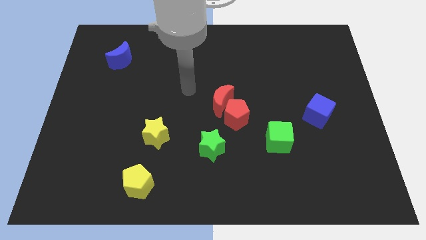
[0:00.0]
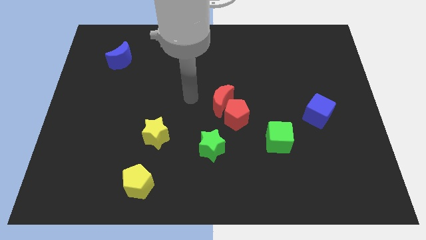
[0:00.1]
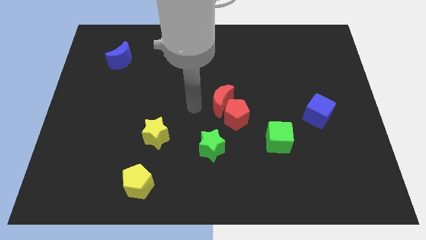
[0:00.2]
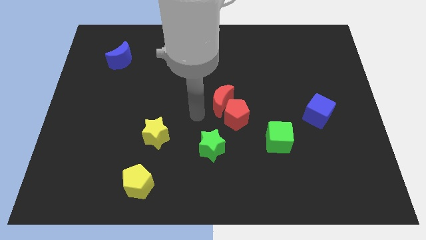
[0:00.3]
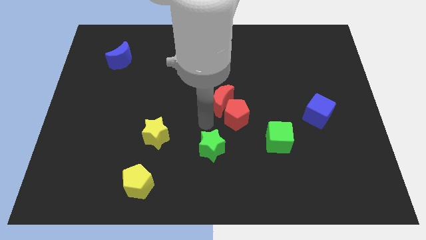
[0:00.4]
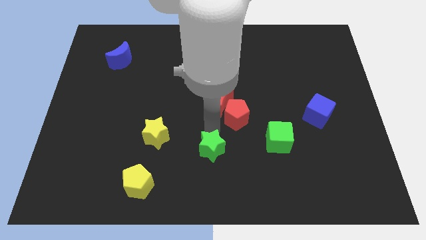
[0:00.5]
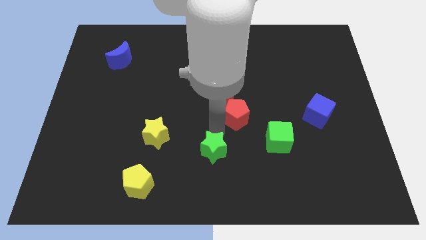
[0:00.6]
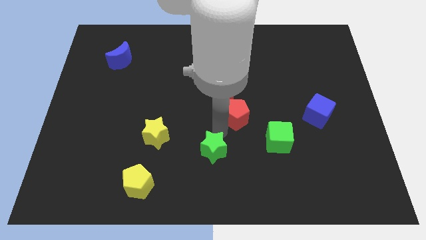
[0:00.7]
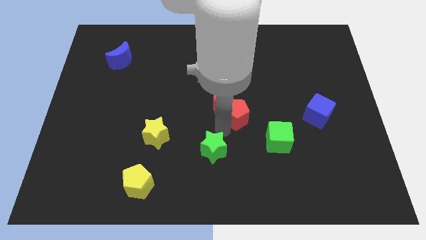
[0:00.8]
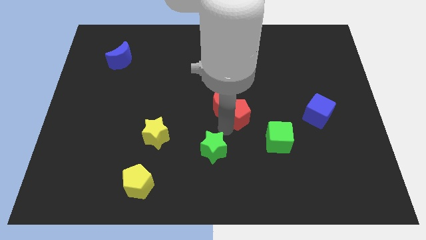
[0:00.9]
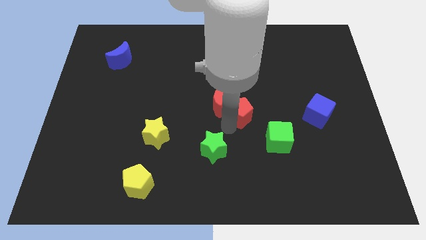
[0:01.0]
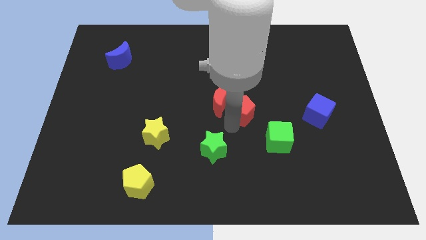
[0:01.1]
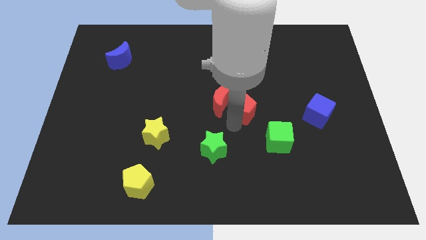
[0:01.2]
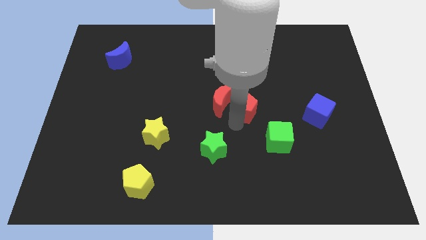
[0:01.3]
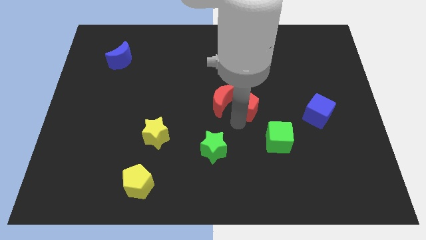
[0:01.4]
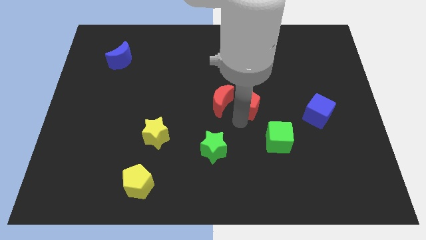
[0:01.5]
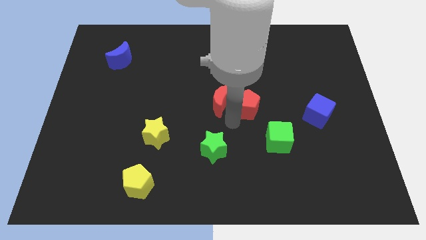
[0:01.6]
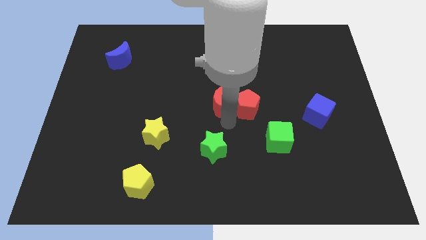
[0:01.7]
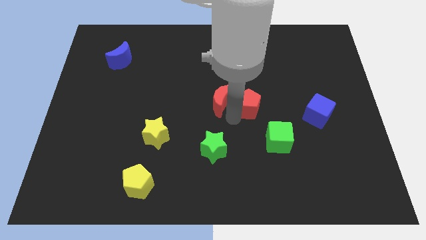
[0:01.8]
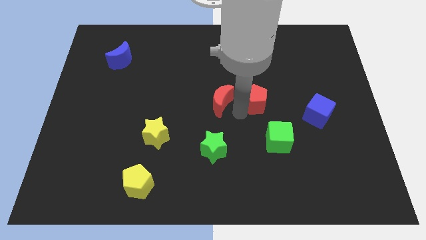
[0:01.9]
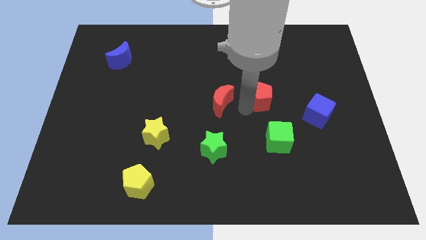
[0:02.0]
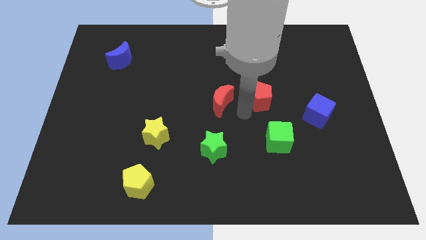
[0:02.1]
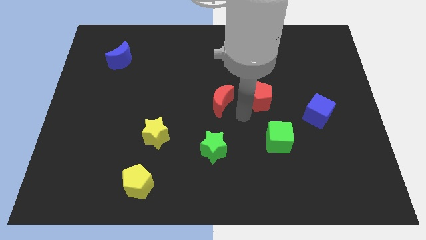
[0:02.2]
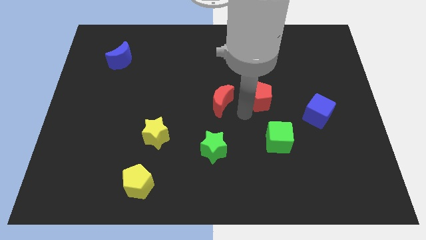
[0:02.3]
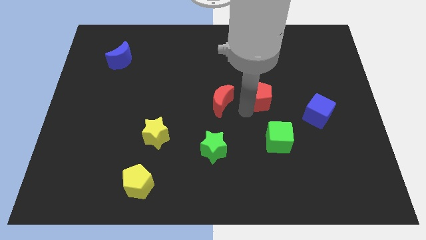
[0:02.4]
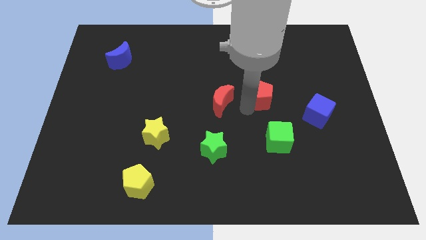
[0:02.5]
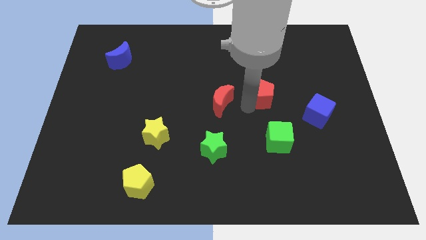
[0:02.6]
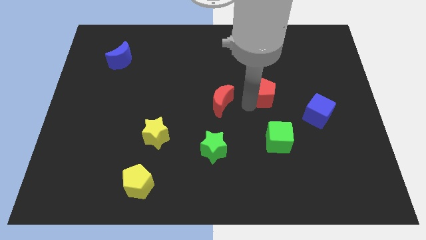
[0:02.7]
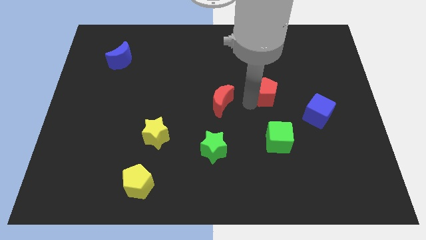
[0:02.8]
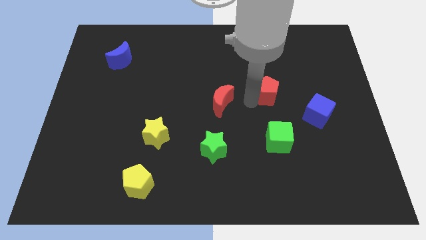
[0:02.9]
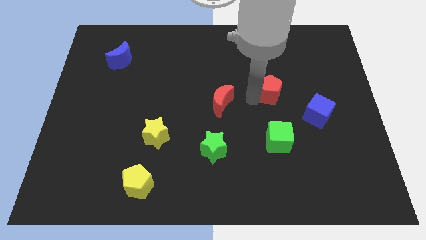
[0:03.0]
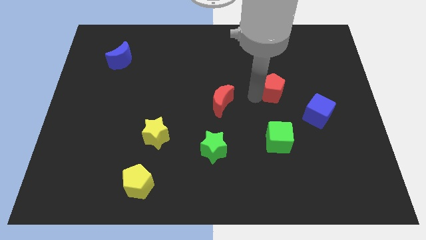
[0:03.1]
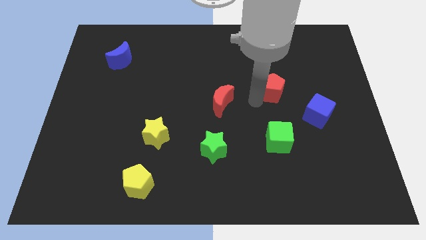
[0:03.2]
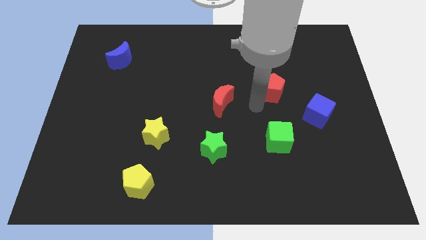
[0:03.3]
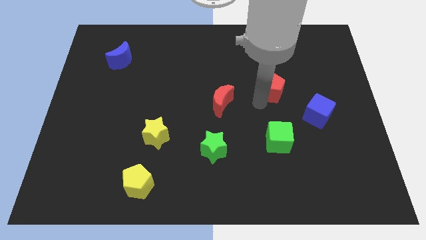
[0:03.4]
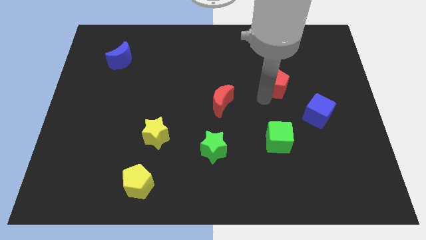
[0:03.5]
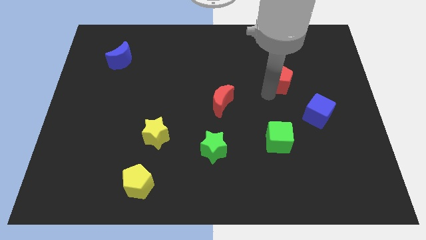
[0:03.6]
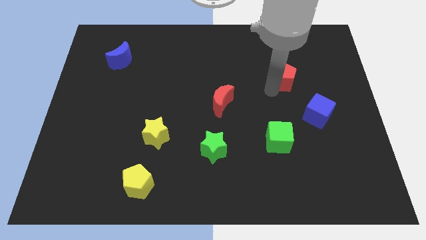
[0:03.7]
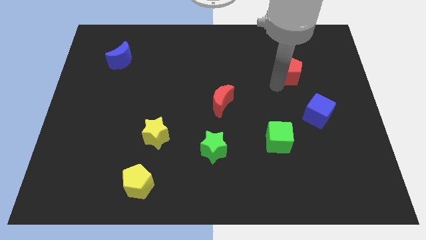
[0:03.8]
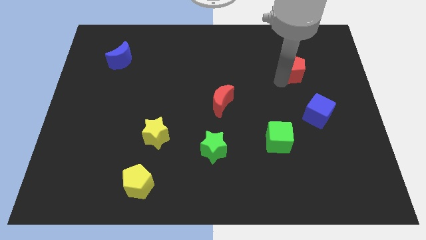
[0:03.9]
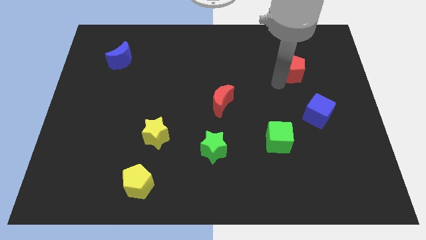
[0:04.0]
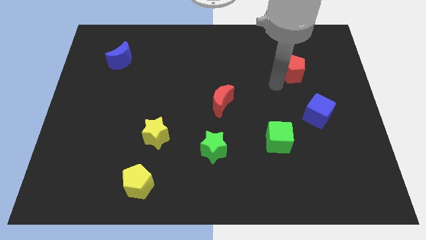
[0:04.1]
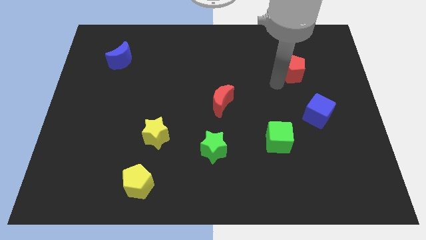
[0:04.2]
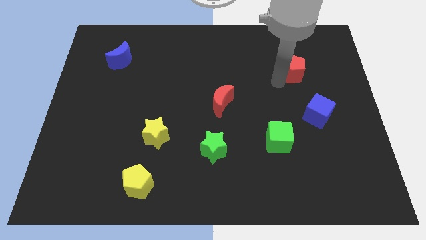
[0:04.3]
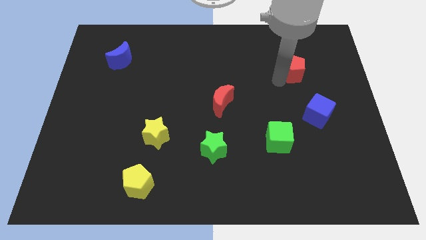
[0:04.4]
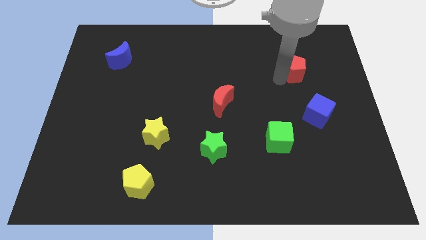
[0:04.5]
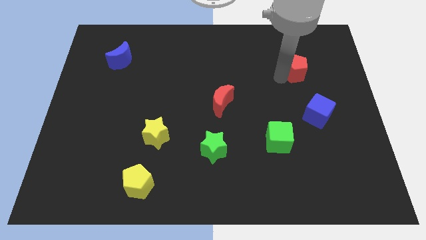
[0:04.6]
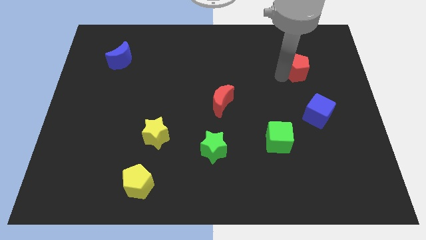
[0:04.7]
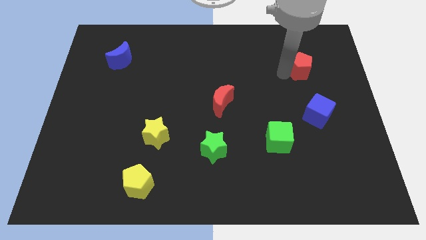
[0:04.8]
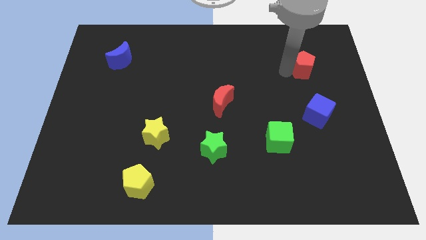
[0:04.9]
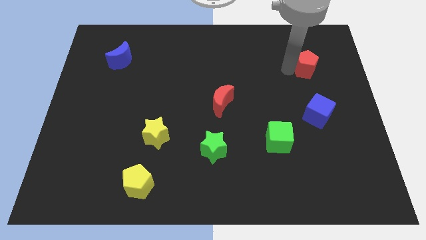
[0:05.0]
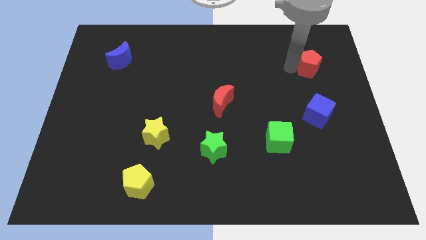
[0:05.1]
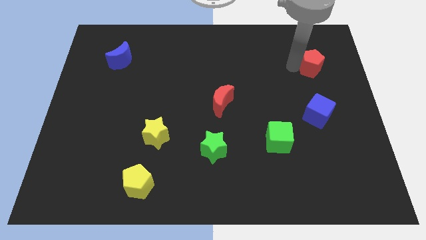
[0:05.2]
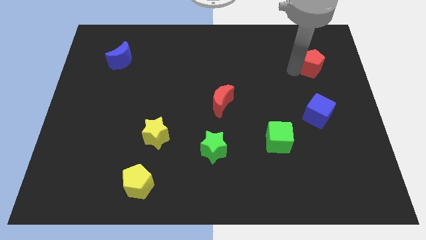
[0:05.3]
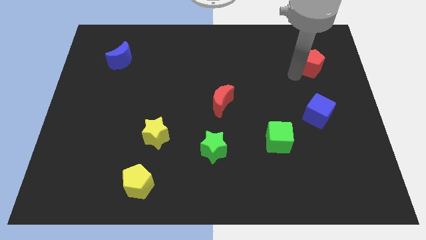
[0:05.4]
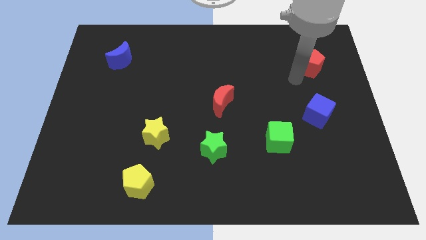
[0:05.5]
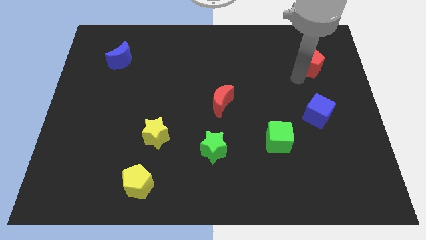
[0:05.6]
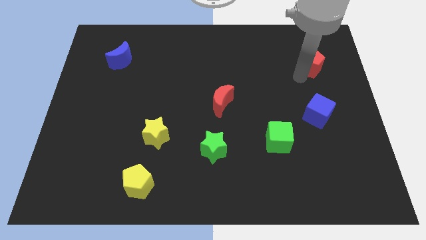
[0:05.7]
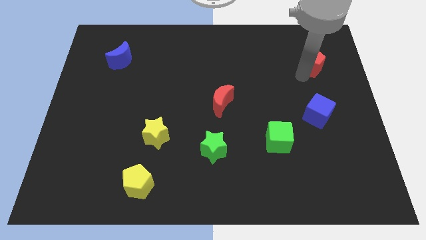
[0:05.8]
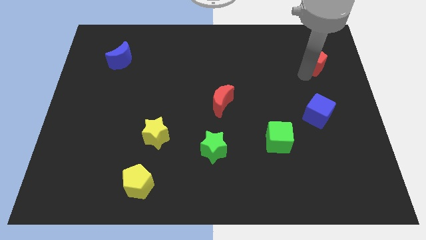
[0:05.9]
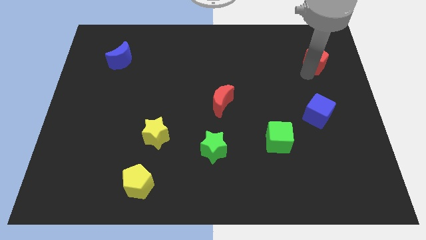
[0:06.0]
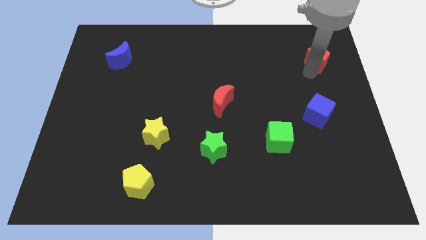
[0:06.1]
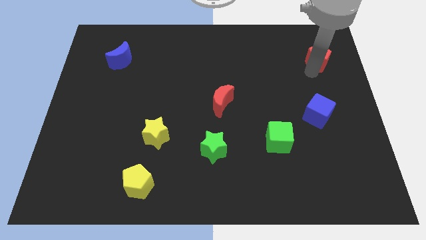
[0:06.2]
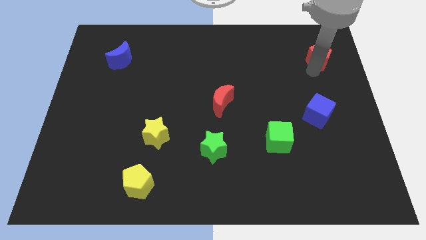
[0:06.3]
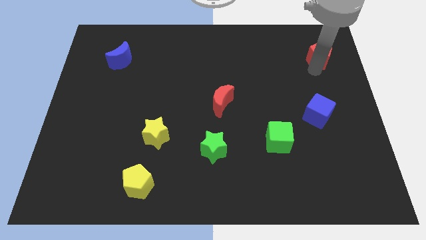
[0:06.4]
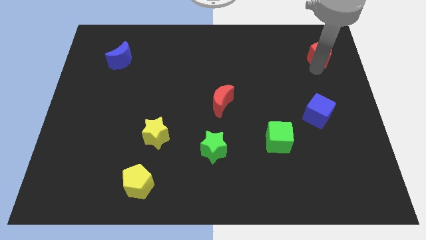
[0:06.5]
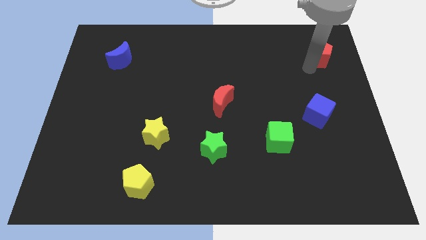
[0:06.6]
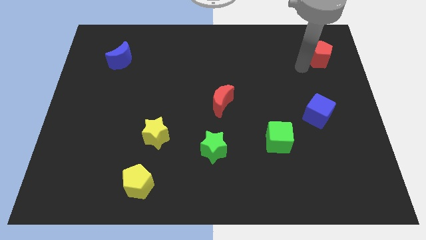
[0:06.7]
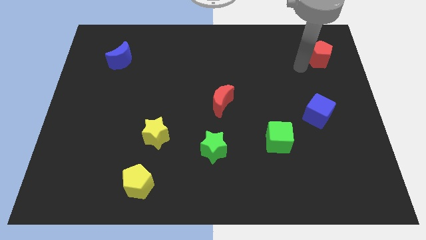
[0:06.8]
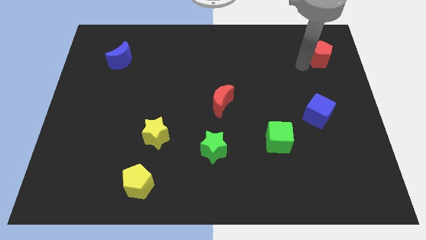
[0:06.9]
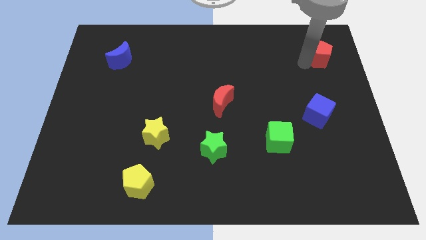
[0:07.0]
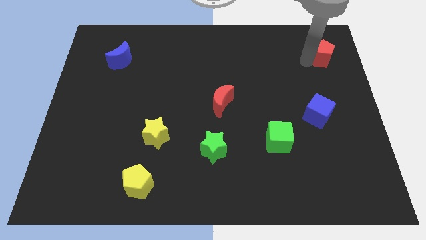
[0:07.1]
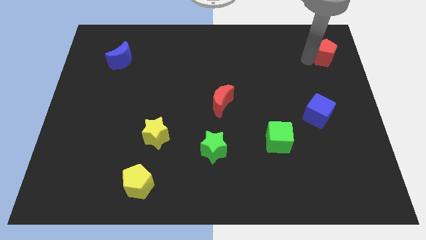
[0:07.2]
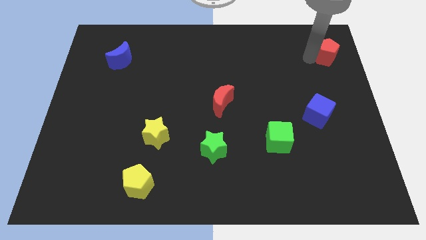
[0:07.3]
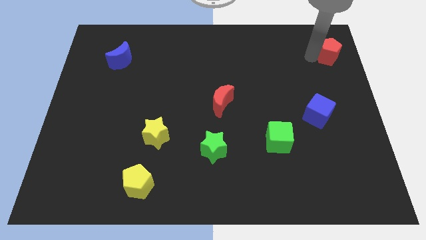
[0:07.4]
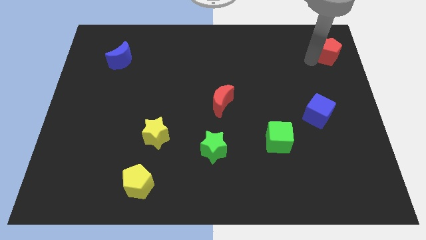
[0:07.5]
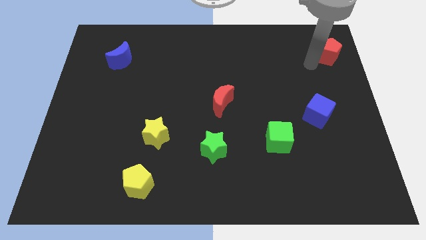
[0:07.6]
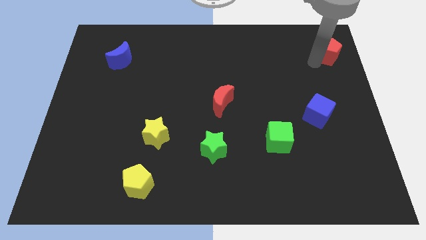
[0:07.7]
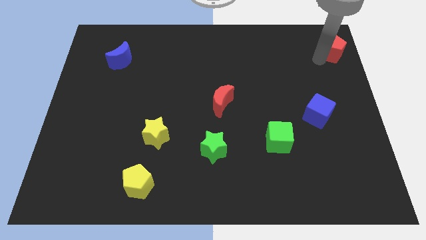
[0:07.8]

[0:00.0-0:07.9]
push the red pentagon to the top right
